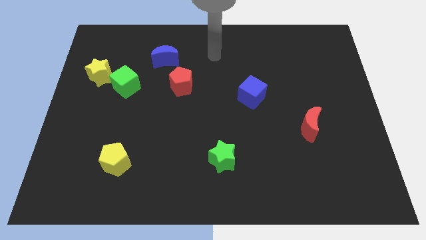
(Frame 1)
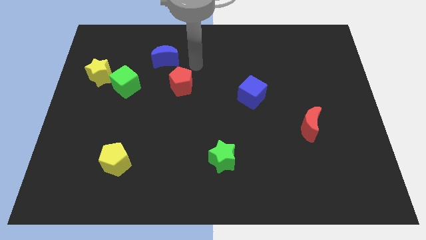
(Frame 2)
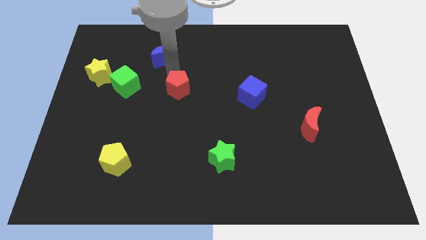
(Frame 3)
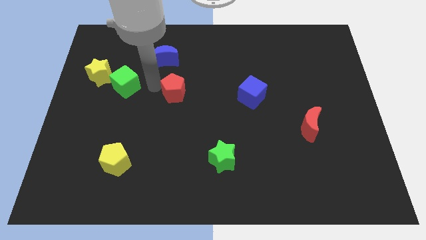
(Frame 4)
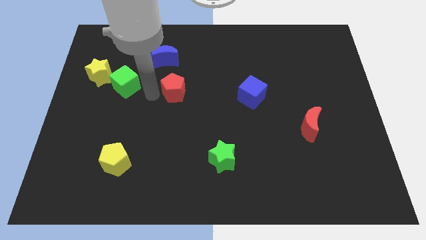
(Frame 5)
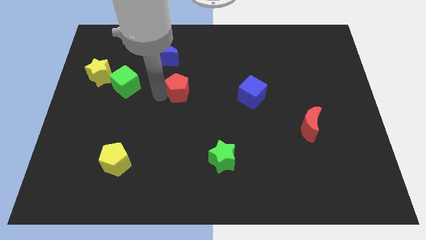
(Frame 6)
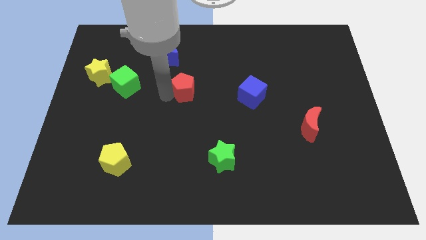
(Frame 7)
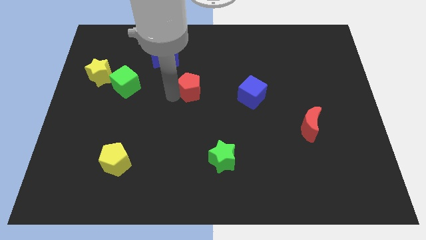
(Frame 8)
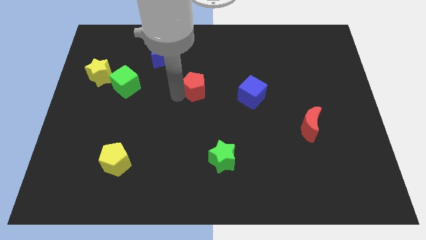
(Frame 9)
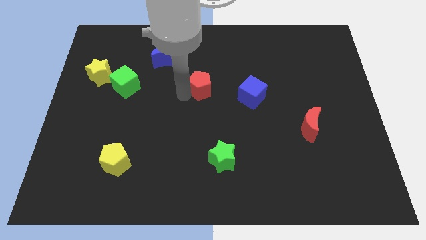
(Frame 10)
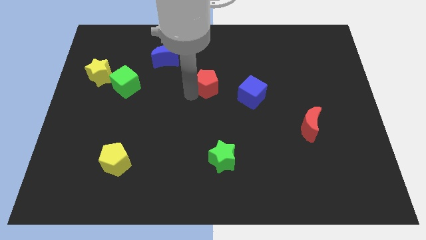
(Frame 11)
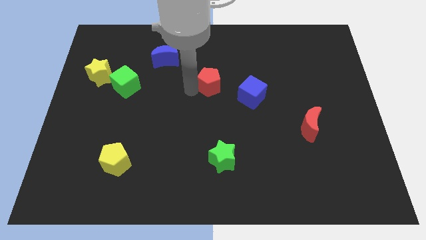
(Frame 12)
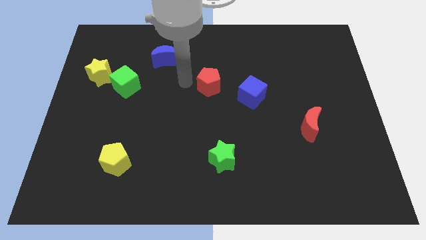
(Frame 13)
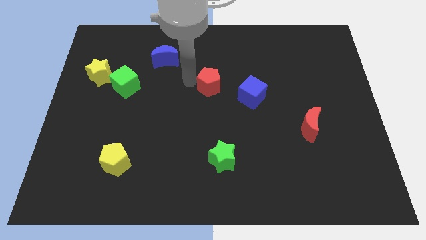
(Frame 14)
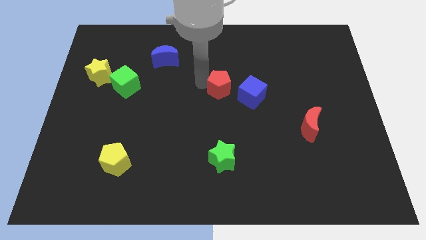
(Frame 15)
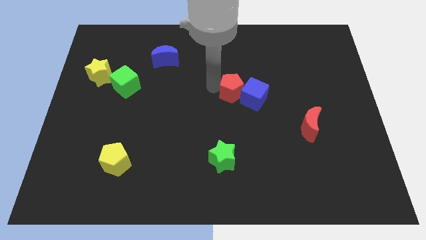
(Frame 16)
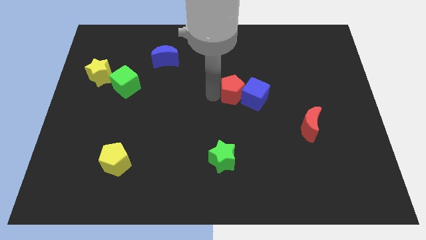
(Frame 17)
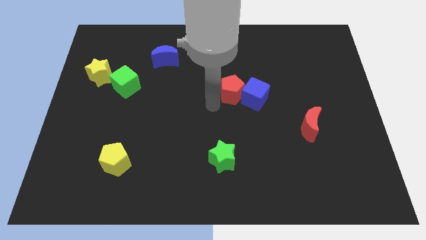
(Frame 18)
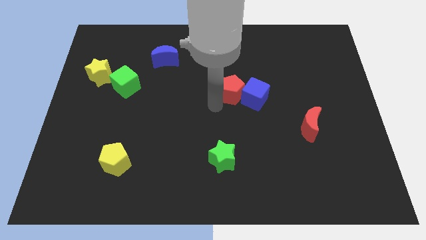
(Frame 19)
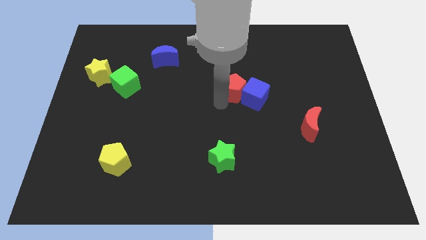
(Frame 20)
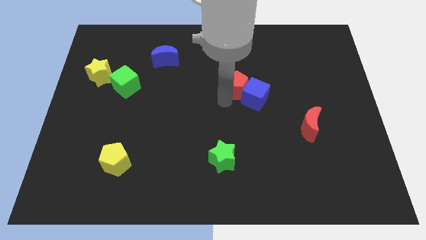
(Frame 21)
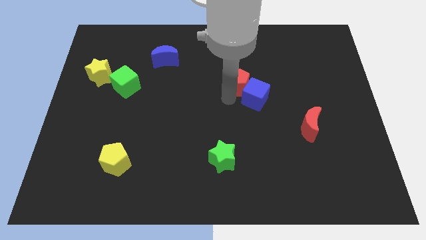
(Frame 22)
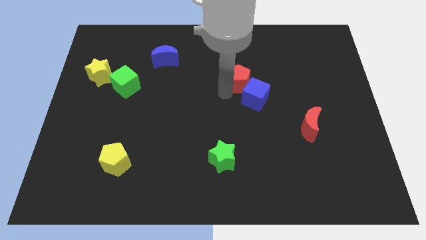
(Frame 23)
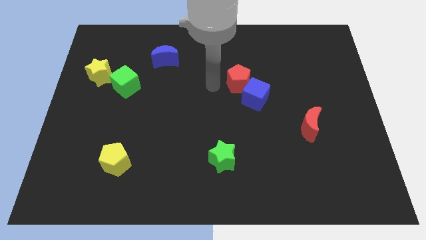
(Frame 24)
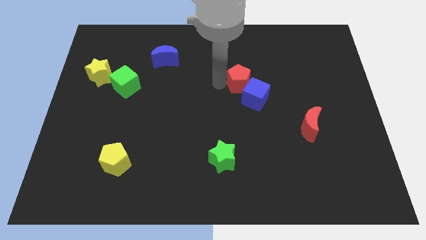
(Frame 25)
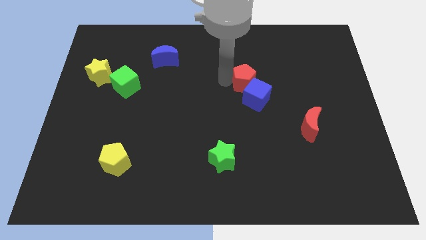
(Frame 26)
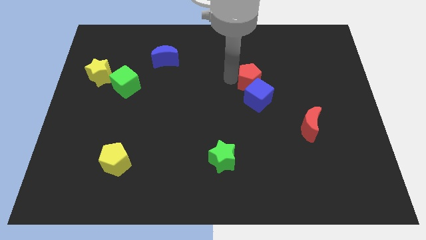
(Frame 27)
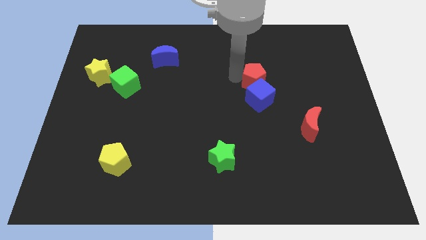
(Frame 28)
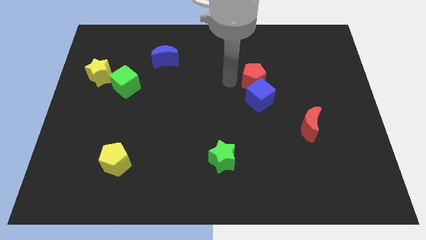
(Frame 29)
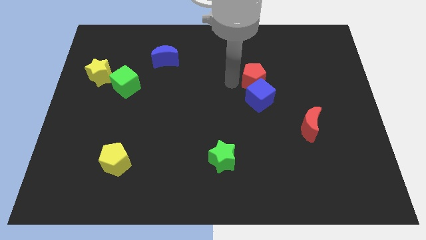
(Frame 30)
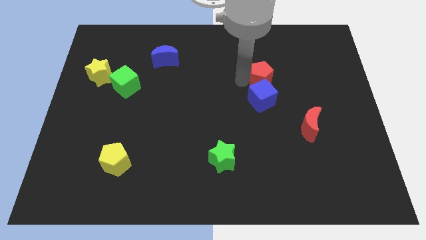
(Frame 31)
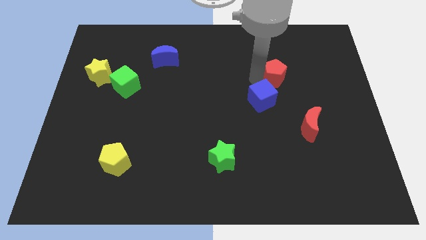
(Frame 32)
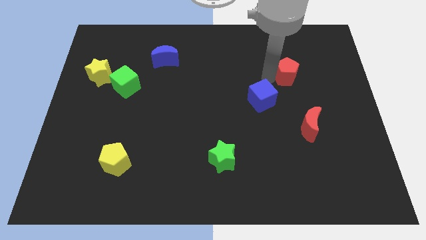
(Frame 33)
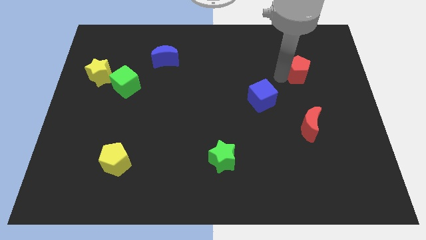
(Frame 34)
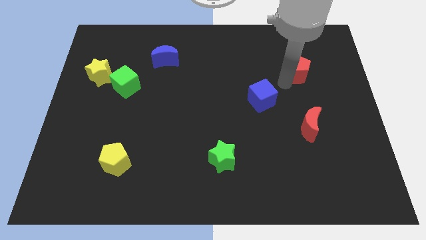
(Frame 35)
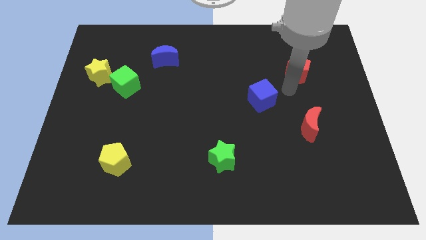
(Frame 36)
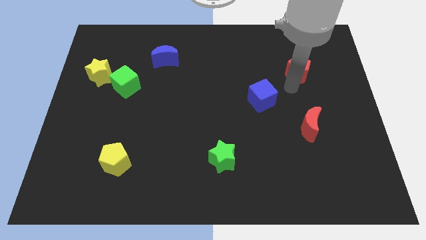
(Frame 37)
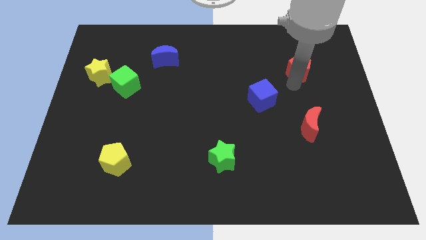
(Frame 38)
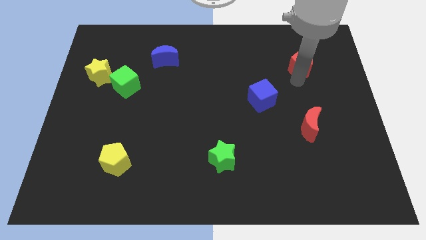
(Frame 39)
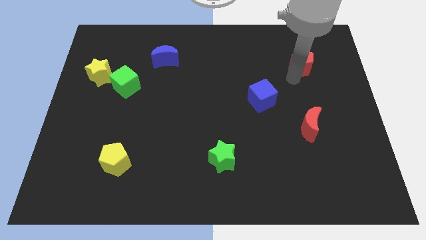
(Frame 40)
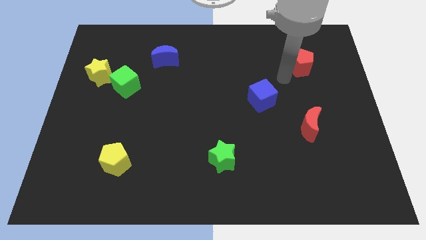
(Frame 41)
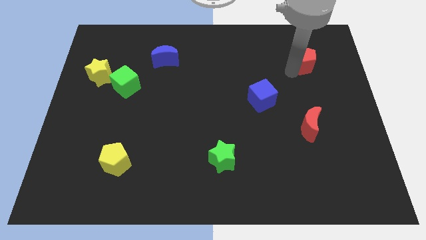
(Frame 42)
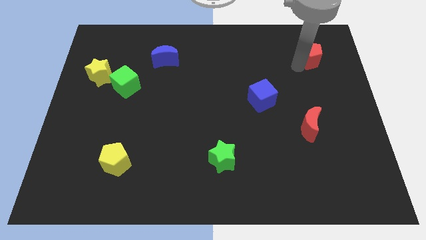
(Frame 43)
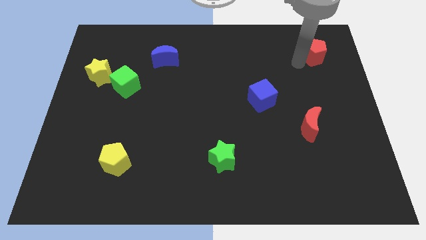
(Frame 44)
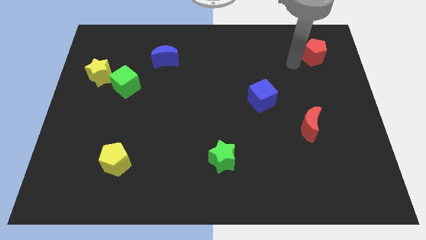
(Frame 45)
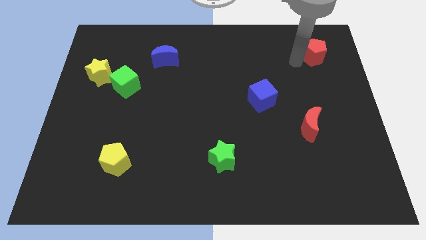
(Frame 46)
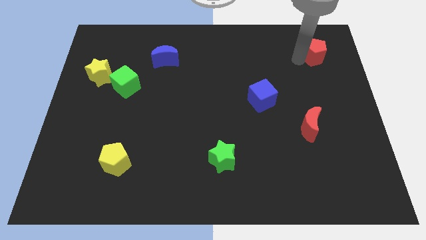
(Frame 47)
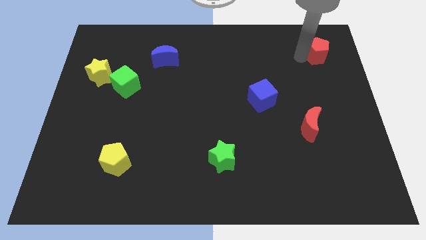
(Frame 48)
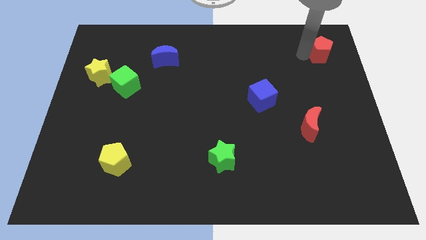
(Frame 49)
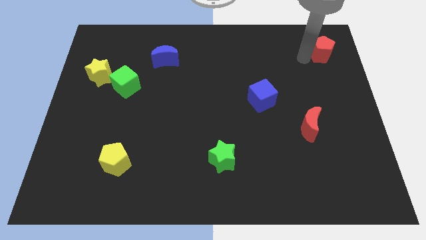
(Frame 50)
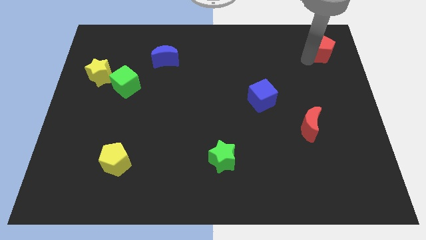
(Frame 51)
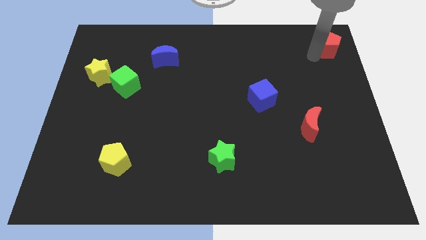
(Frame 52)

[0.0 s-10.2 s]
push the red pentagon to the top right
